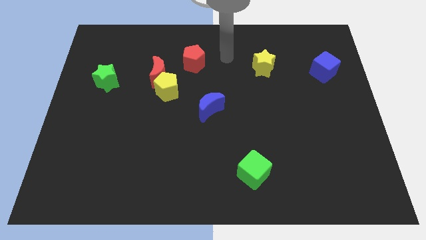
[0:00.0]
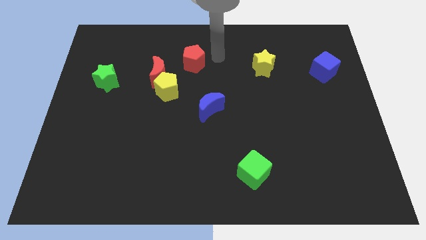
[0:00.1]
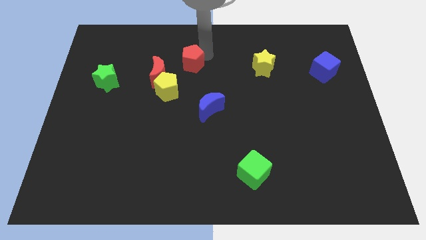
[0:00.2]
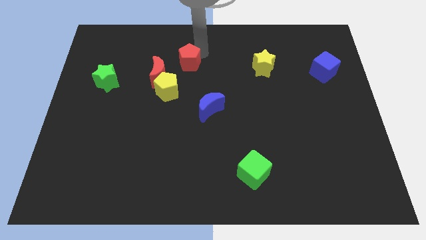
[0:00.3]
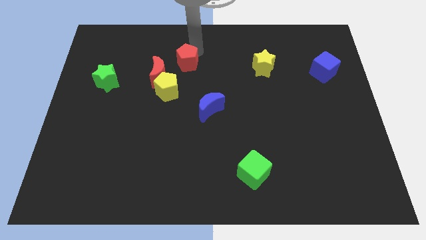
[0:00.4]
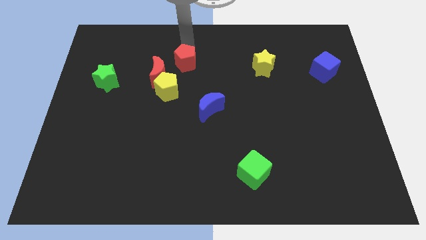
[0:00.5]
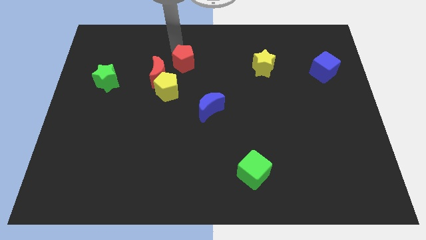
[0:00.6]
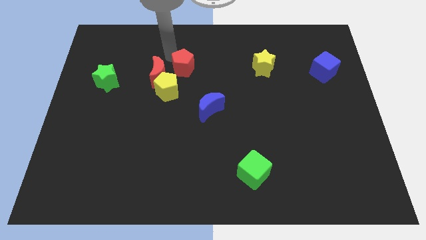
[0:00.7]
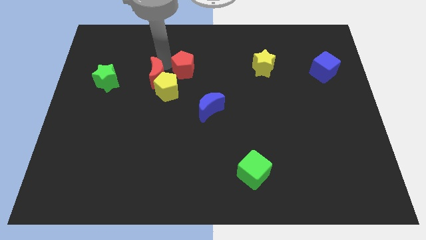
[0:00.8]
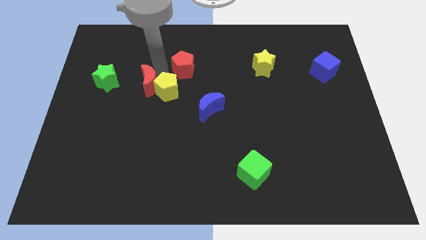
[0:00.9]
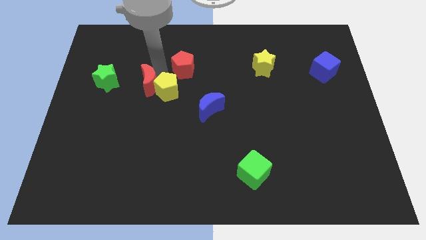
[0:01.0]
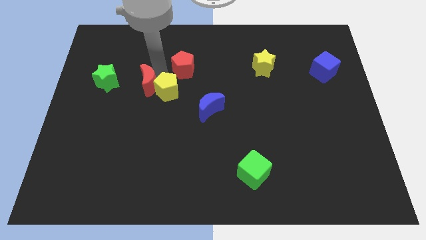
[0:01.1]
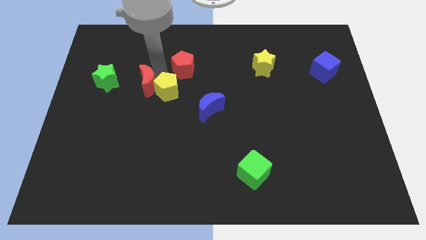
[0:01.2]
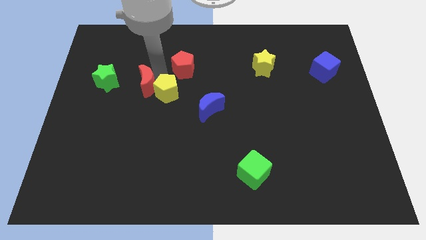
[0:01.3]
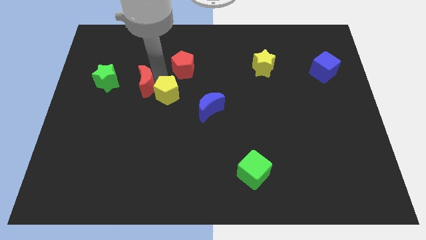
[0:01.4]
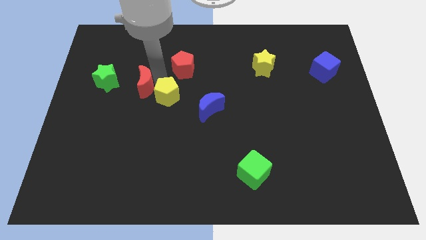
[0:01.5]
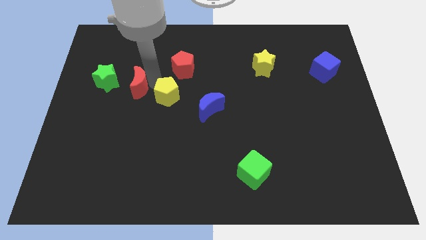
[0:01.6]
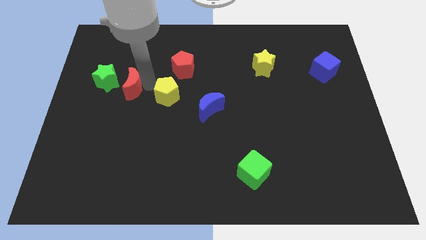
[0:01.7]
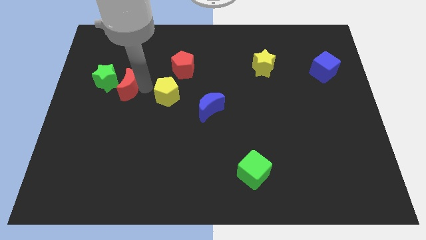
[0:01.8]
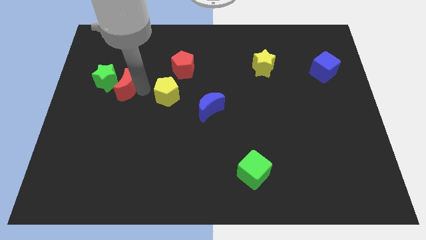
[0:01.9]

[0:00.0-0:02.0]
move the yellow pentagon away from the red moon

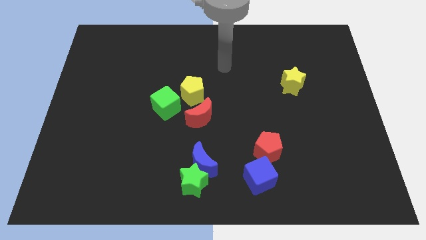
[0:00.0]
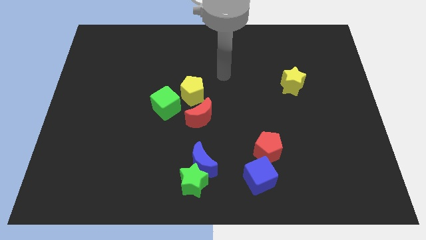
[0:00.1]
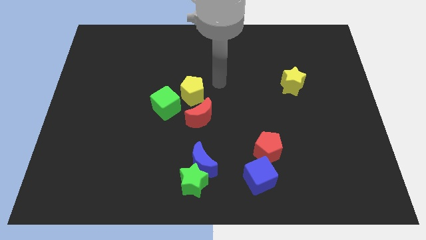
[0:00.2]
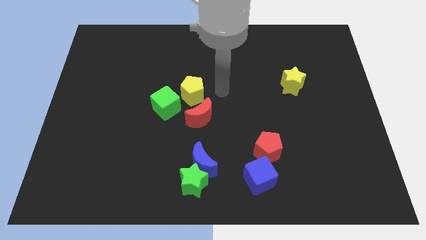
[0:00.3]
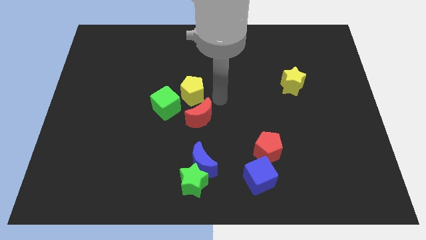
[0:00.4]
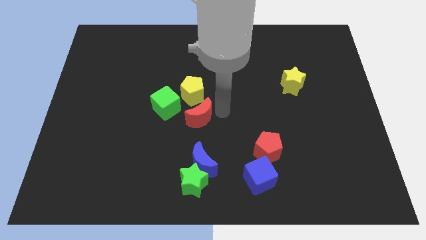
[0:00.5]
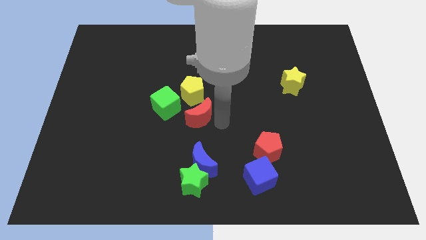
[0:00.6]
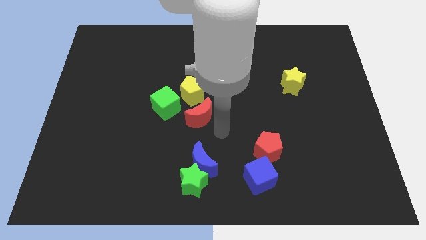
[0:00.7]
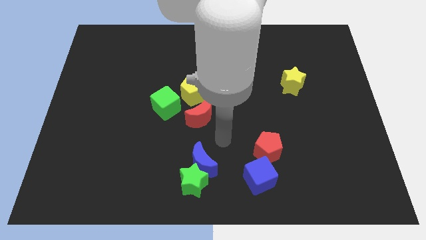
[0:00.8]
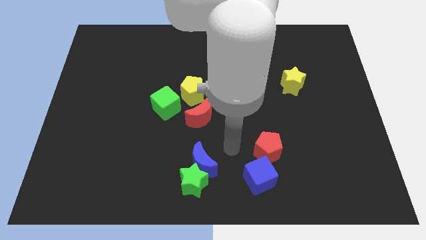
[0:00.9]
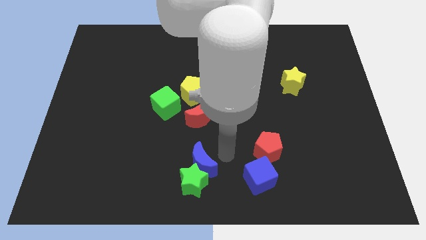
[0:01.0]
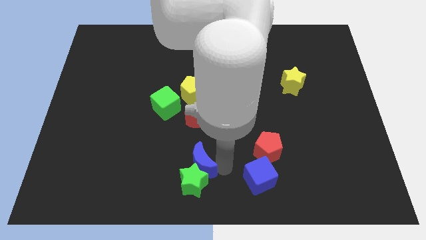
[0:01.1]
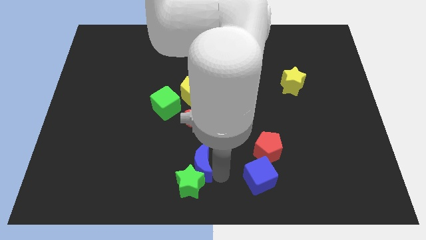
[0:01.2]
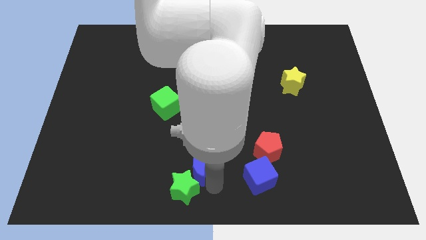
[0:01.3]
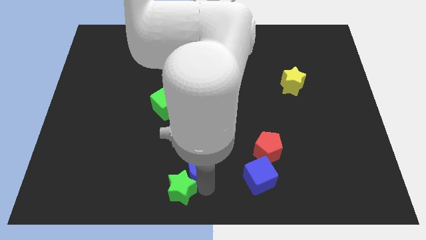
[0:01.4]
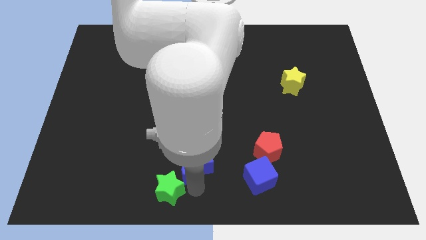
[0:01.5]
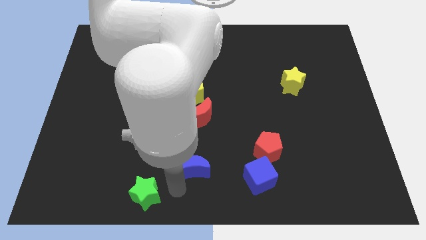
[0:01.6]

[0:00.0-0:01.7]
separate the blue moon from the green star

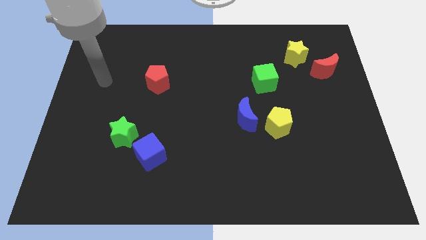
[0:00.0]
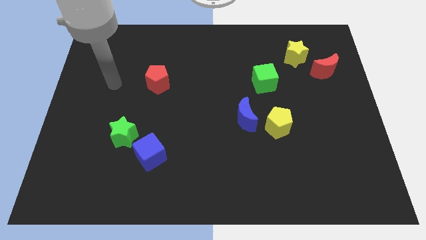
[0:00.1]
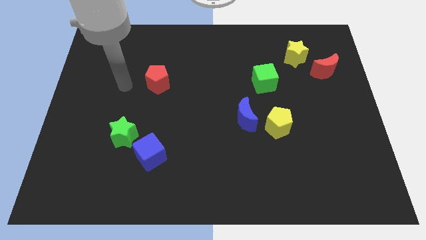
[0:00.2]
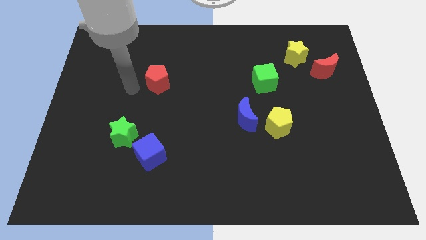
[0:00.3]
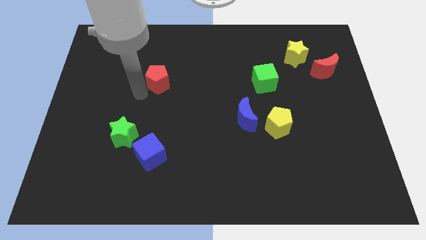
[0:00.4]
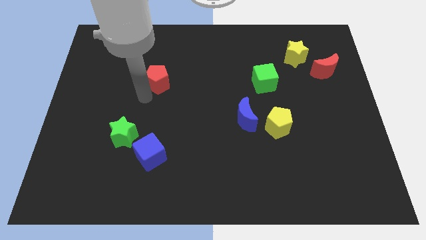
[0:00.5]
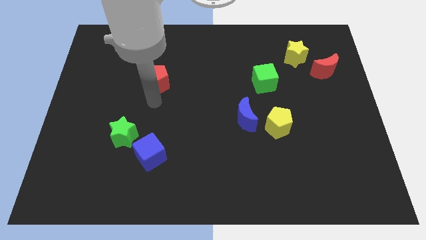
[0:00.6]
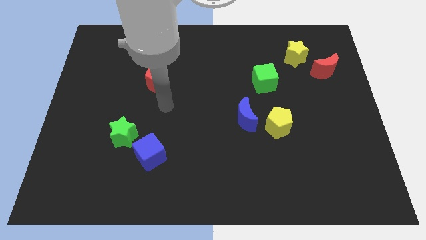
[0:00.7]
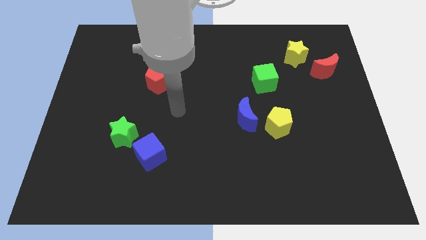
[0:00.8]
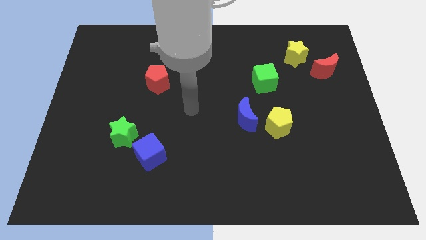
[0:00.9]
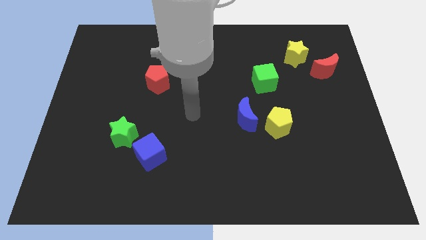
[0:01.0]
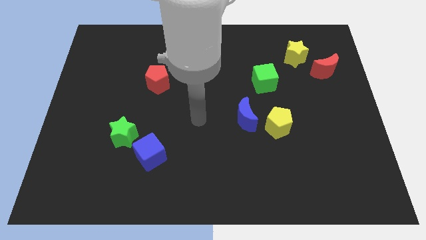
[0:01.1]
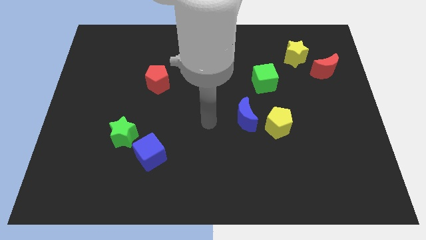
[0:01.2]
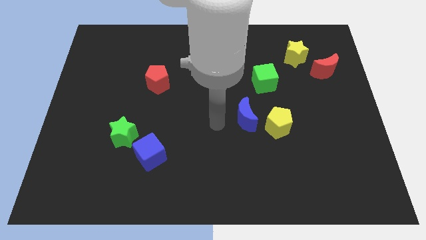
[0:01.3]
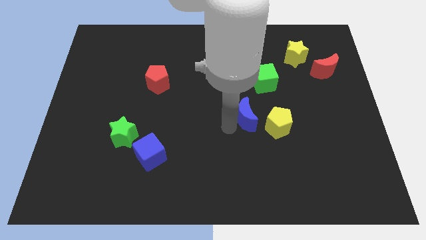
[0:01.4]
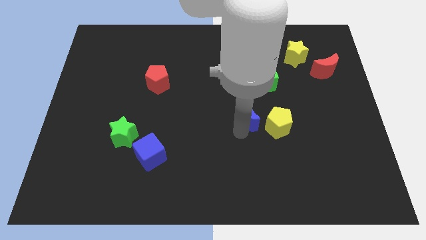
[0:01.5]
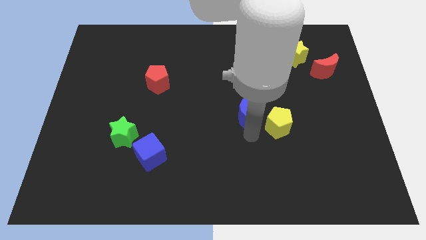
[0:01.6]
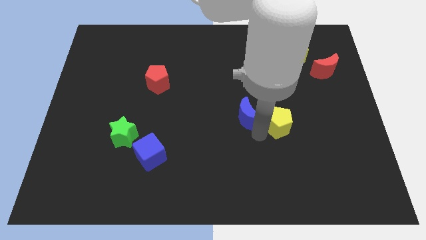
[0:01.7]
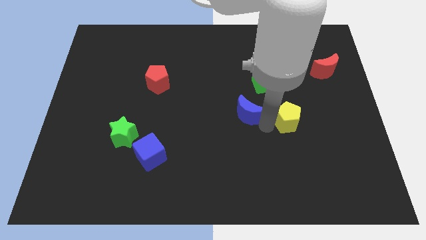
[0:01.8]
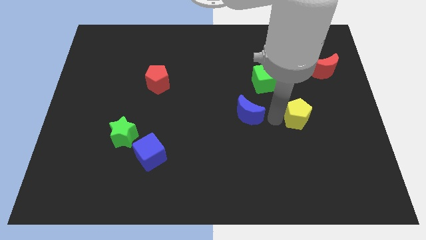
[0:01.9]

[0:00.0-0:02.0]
separate the blue moon from the yellow pentagon

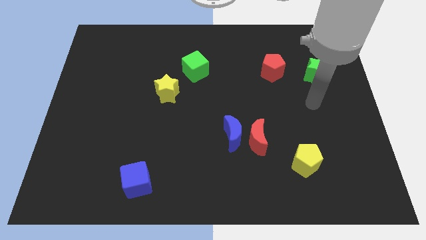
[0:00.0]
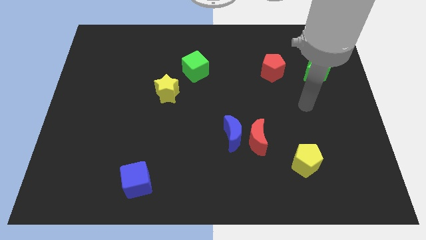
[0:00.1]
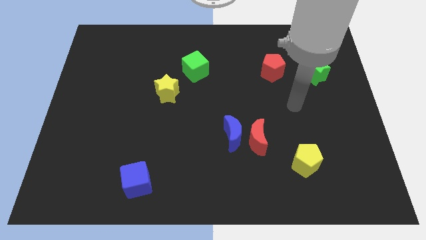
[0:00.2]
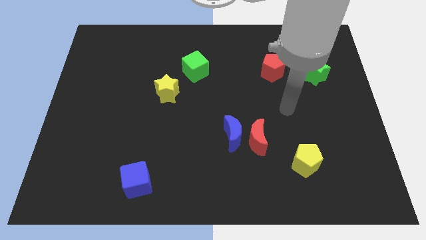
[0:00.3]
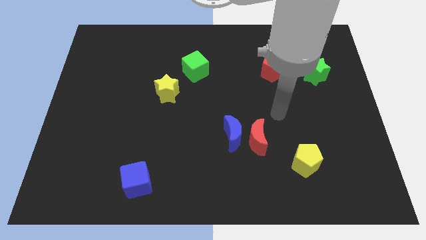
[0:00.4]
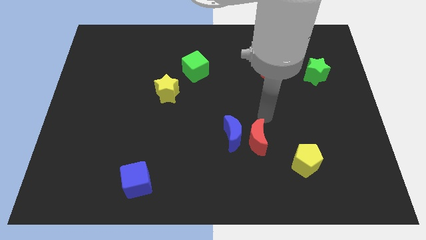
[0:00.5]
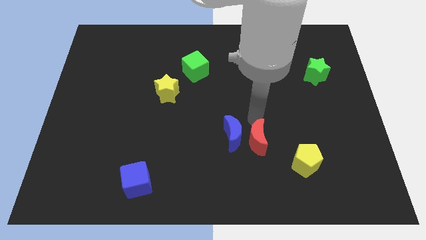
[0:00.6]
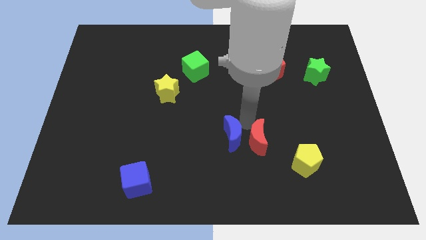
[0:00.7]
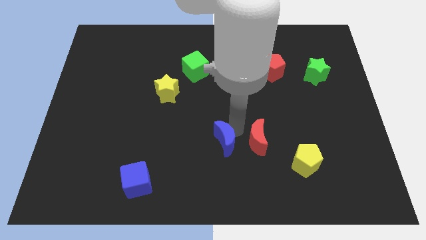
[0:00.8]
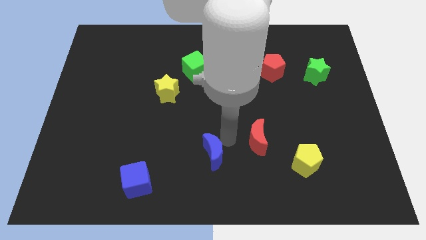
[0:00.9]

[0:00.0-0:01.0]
move the red moon away from the blue moon

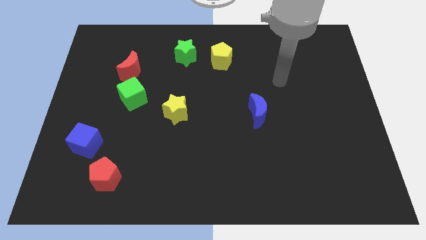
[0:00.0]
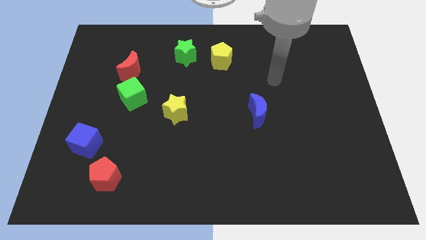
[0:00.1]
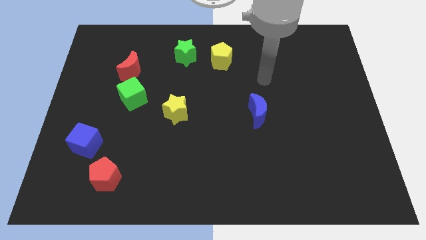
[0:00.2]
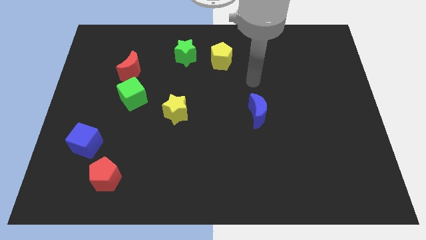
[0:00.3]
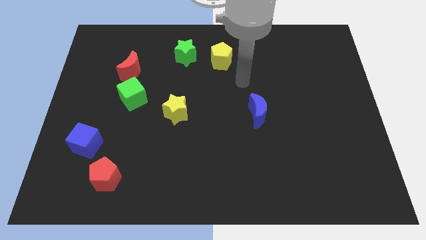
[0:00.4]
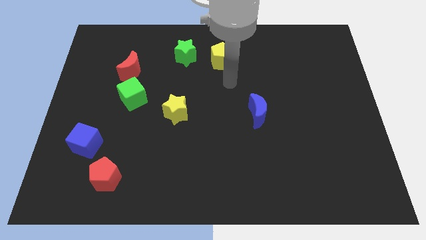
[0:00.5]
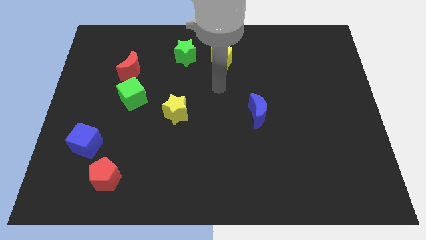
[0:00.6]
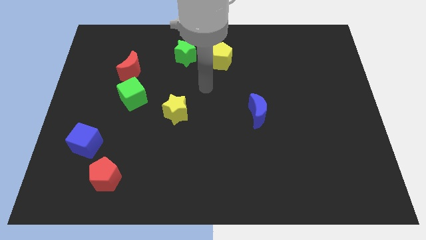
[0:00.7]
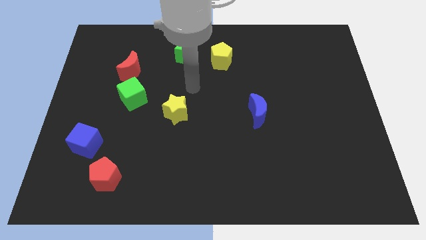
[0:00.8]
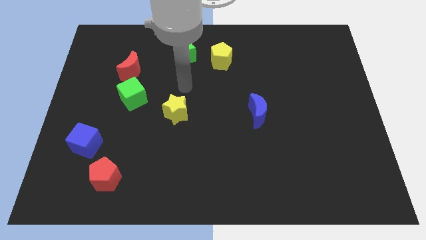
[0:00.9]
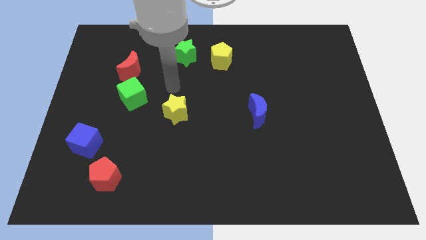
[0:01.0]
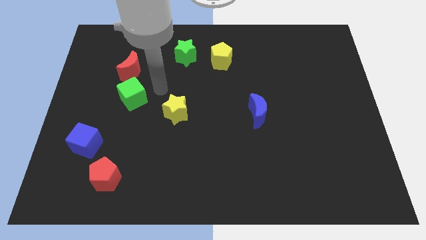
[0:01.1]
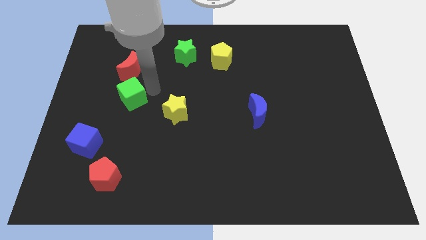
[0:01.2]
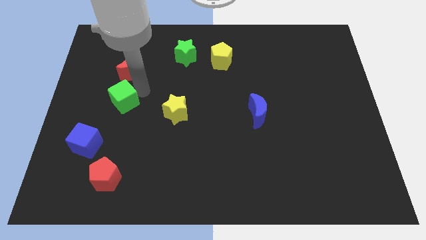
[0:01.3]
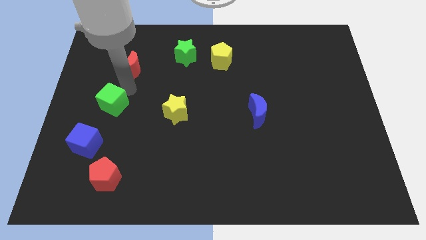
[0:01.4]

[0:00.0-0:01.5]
move the red moon away from the green cube

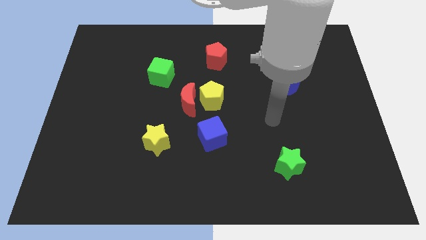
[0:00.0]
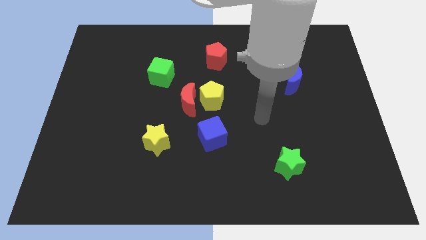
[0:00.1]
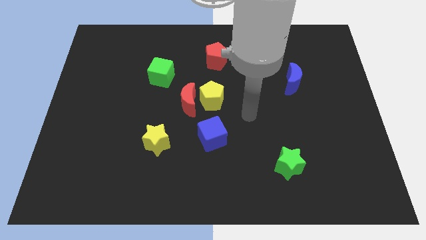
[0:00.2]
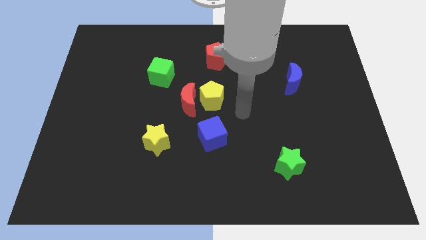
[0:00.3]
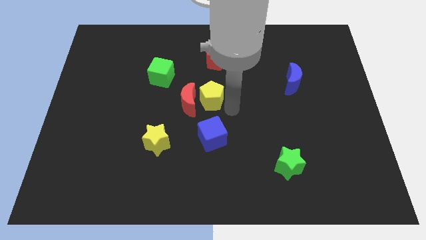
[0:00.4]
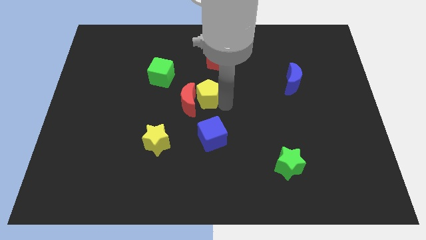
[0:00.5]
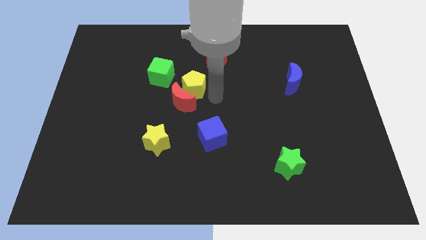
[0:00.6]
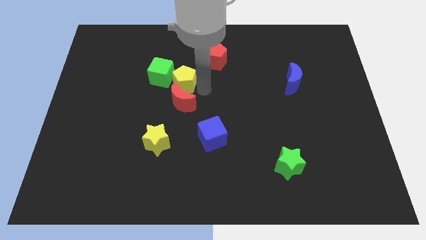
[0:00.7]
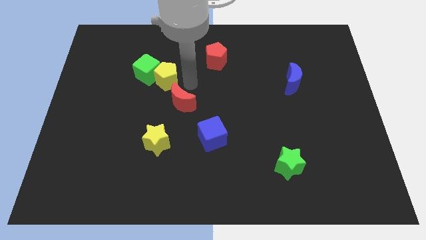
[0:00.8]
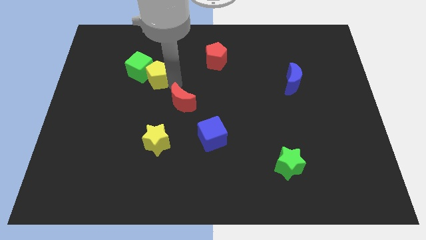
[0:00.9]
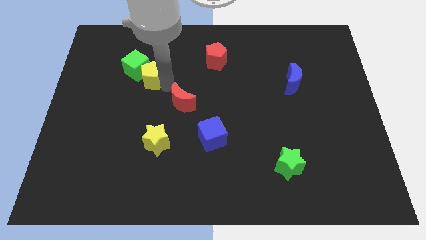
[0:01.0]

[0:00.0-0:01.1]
move the red moon away from the yellow pentagon

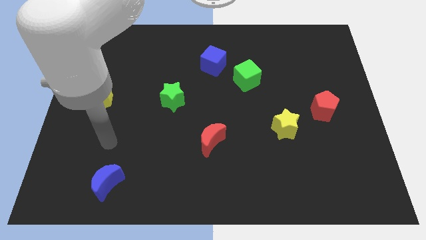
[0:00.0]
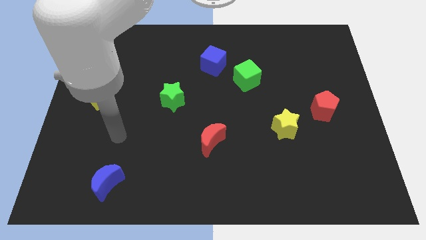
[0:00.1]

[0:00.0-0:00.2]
pull the blue cube apart from the green cube
